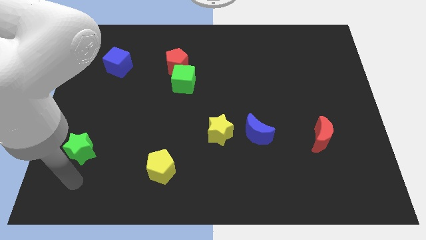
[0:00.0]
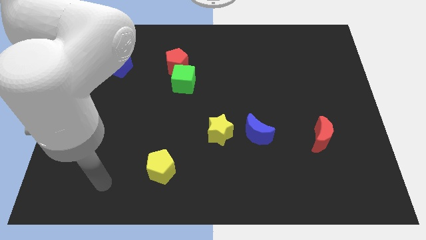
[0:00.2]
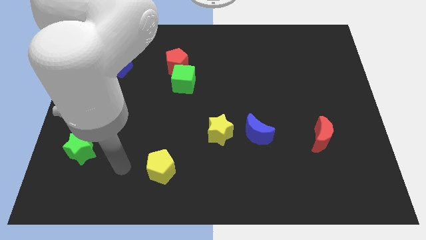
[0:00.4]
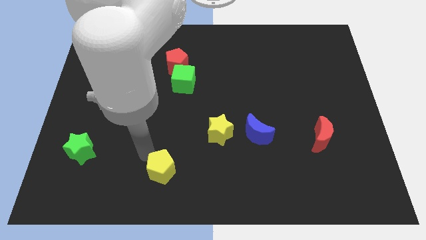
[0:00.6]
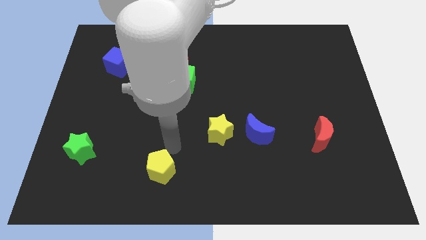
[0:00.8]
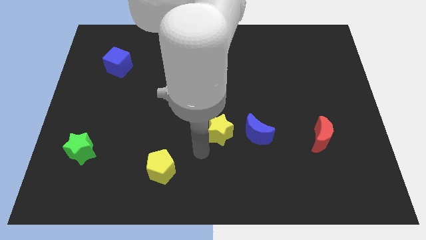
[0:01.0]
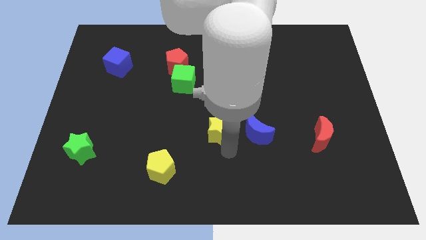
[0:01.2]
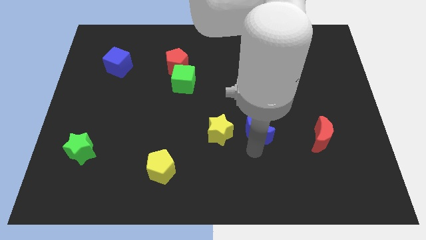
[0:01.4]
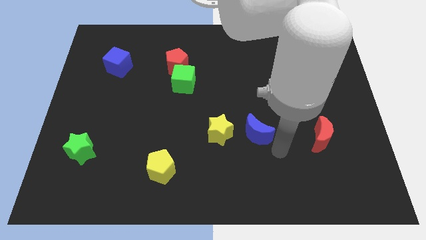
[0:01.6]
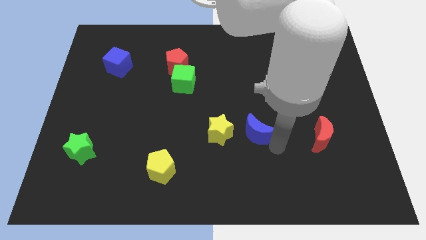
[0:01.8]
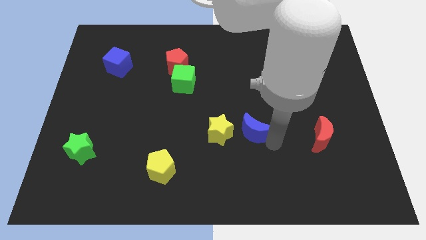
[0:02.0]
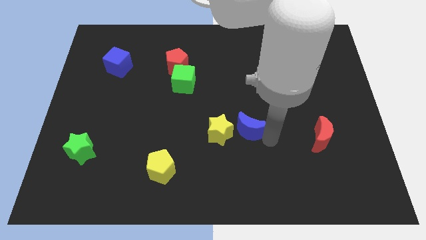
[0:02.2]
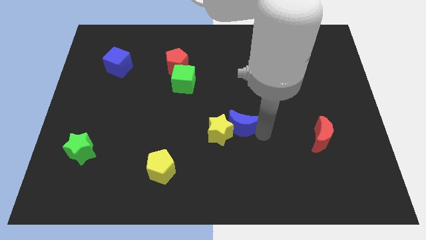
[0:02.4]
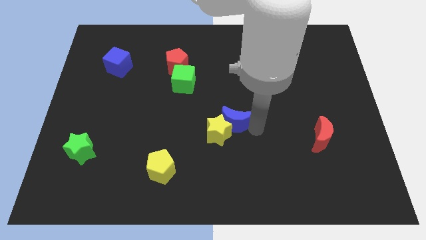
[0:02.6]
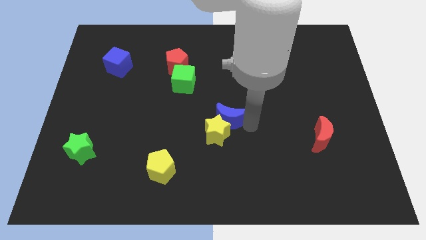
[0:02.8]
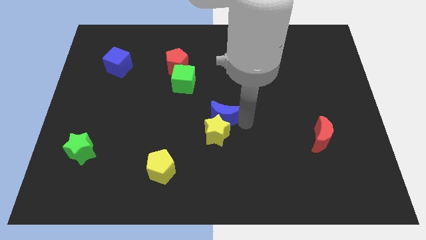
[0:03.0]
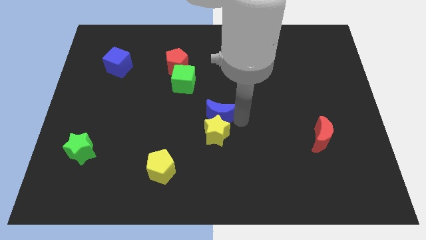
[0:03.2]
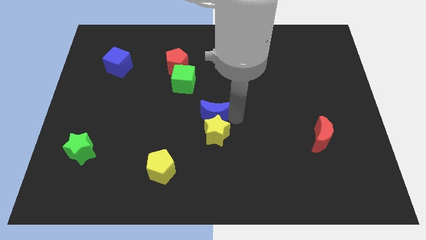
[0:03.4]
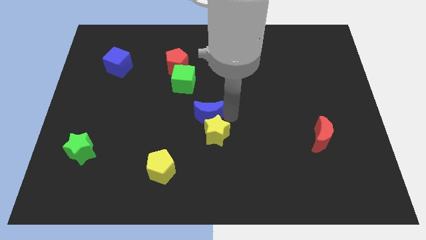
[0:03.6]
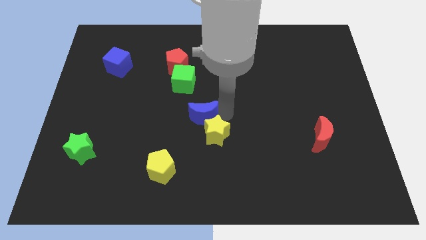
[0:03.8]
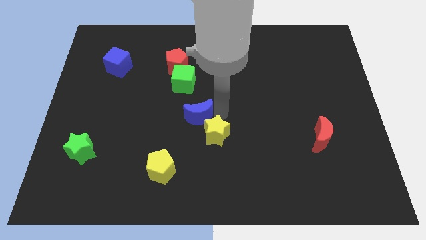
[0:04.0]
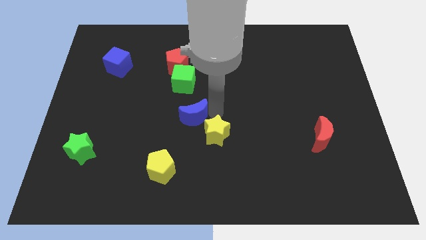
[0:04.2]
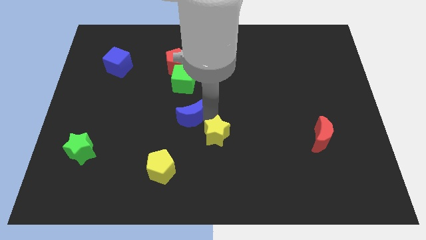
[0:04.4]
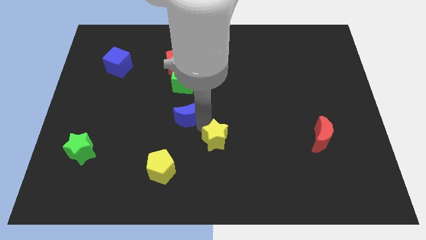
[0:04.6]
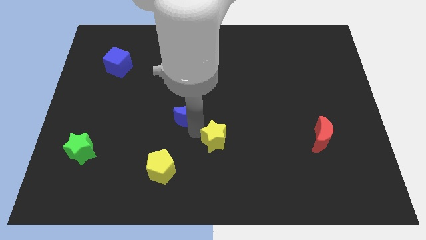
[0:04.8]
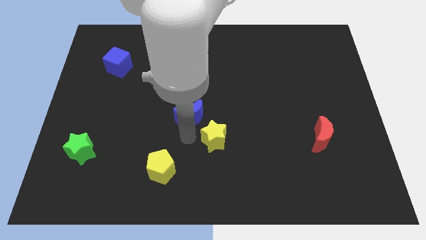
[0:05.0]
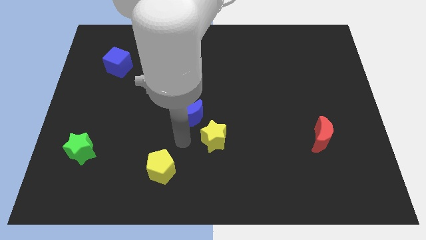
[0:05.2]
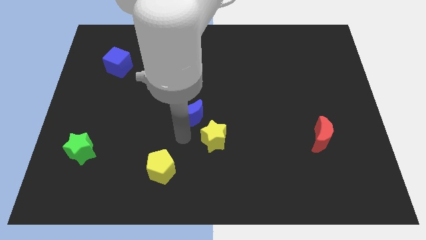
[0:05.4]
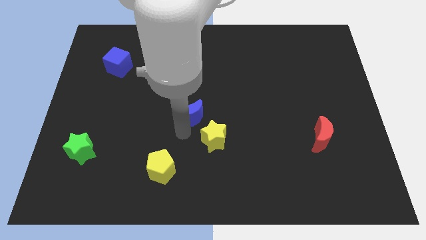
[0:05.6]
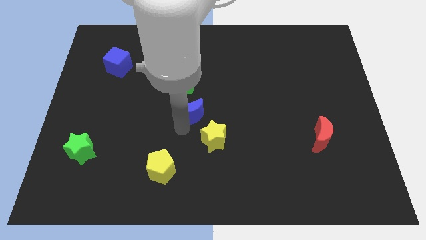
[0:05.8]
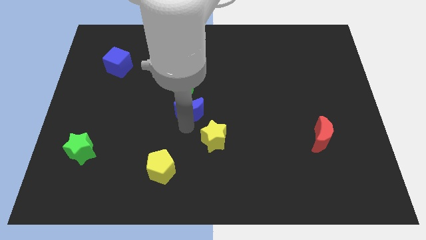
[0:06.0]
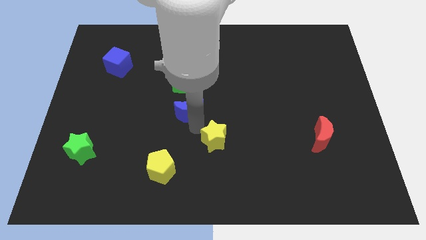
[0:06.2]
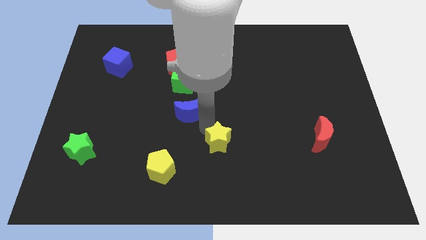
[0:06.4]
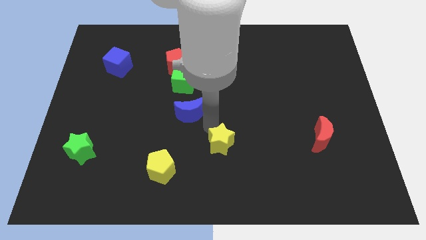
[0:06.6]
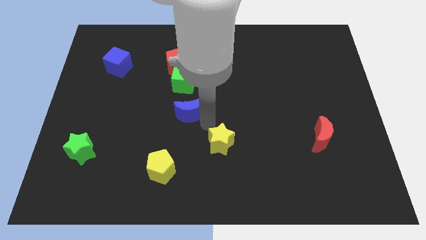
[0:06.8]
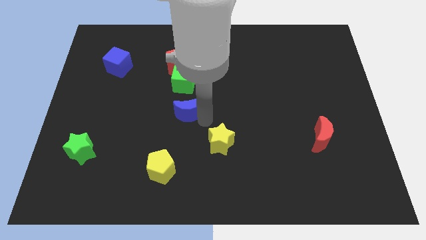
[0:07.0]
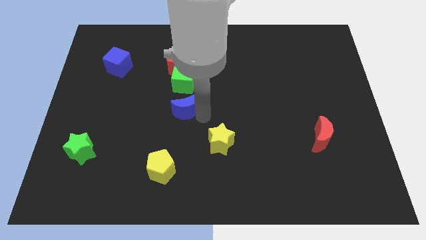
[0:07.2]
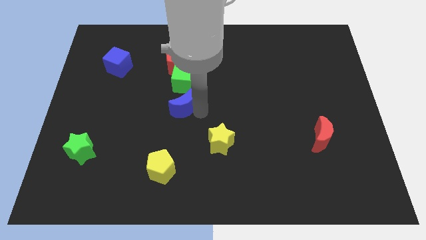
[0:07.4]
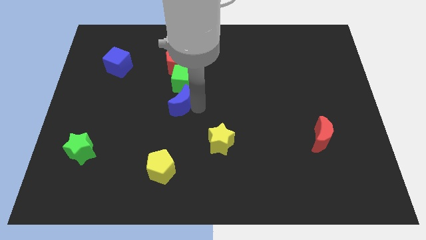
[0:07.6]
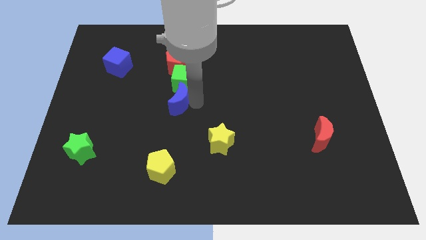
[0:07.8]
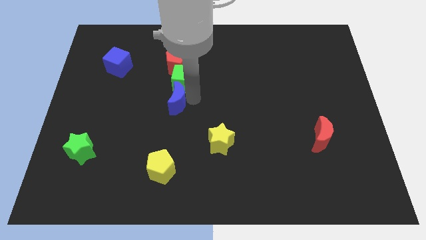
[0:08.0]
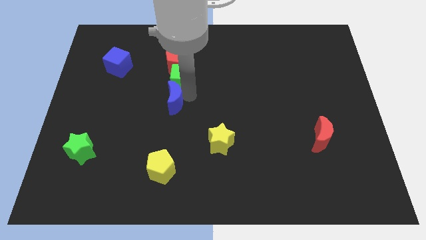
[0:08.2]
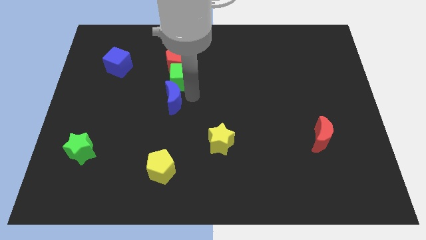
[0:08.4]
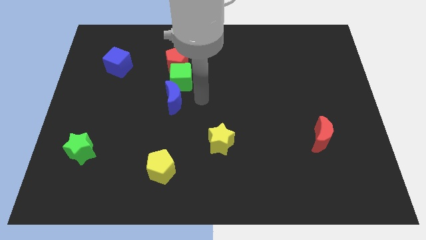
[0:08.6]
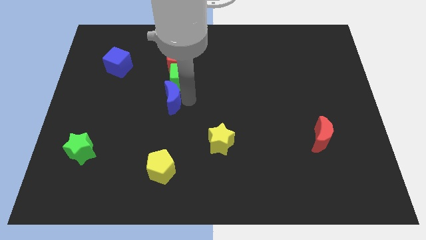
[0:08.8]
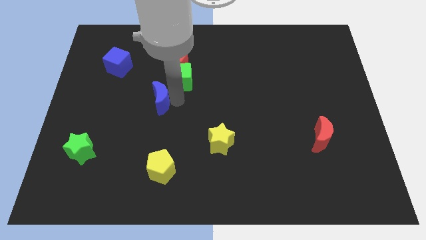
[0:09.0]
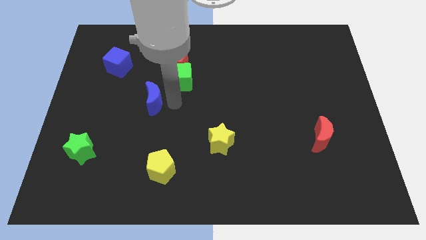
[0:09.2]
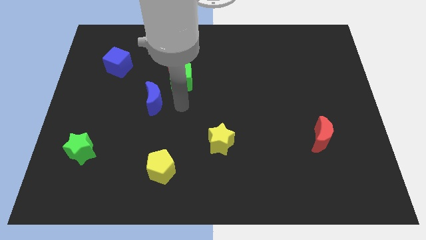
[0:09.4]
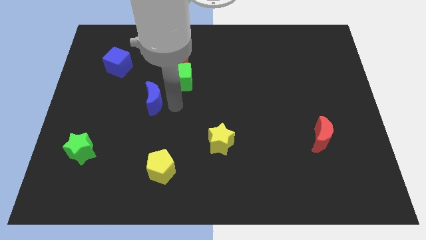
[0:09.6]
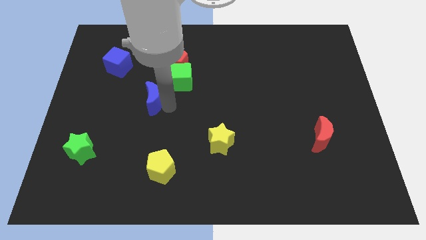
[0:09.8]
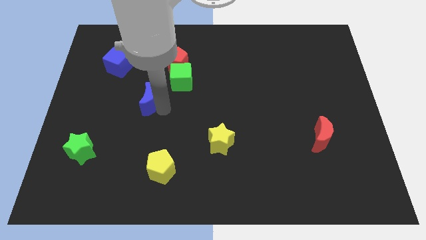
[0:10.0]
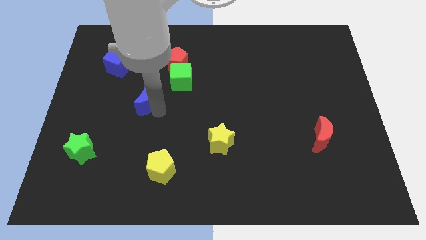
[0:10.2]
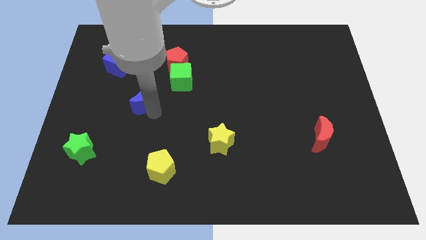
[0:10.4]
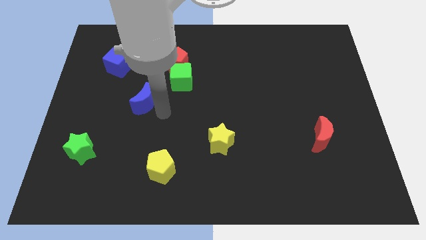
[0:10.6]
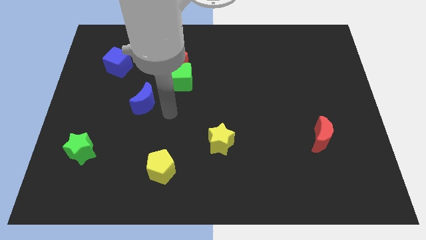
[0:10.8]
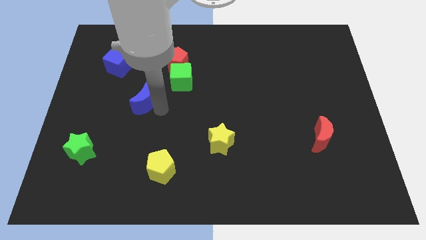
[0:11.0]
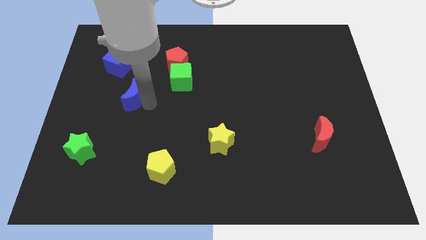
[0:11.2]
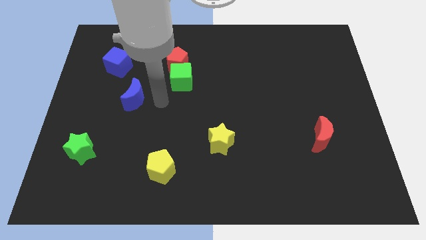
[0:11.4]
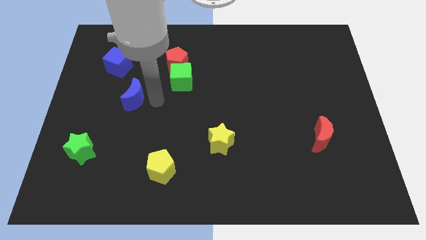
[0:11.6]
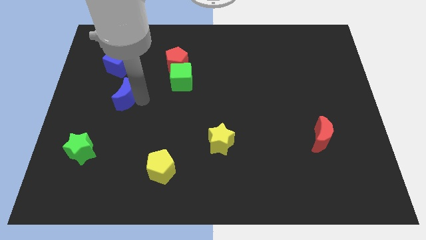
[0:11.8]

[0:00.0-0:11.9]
slide the blue moon to the bottom side of the blue cube

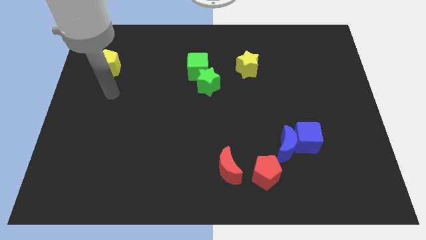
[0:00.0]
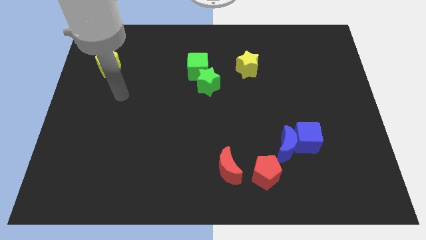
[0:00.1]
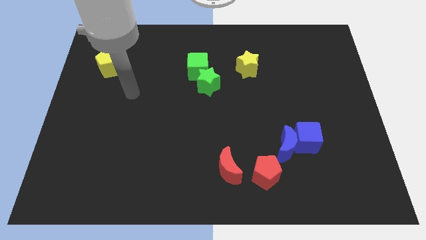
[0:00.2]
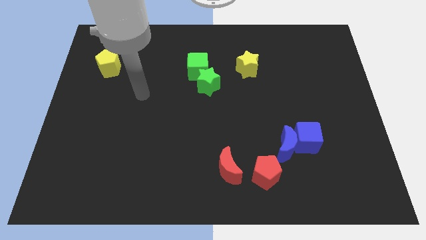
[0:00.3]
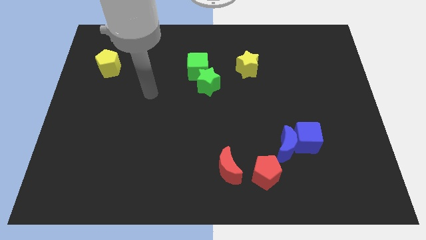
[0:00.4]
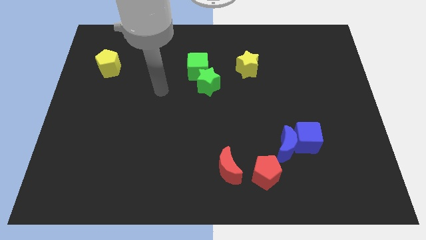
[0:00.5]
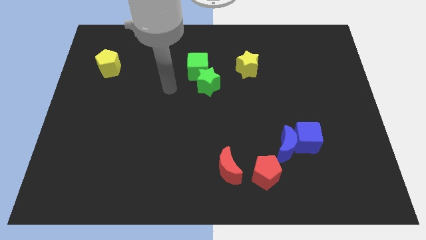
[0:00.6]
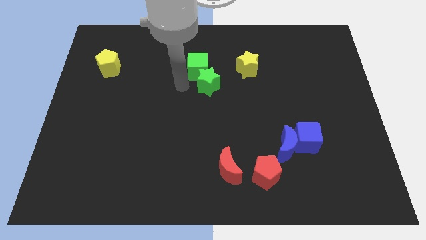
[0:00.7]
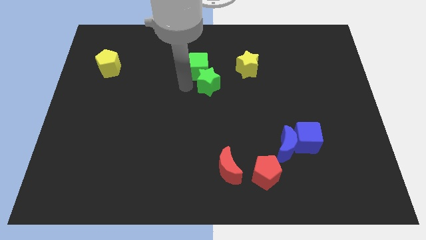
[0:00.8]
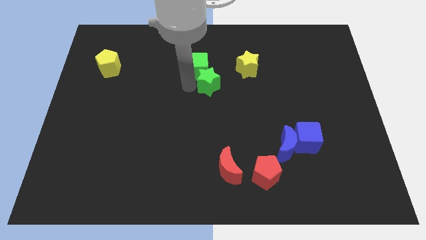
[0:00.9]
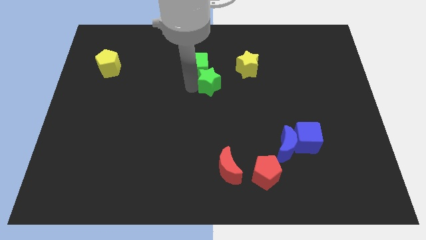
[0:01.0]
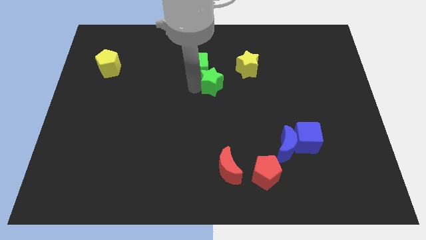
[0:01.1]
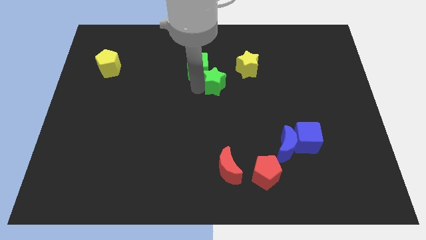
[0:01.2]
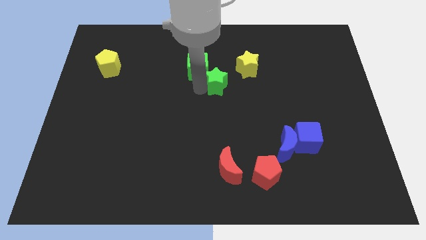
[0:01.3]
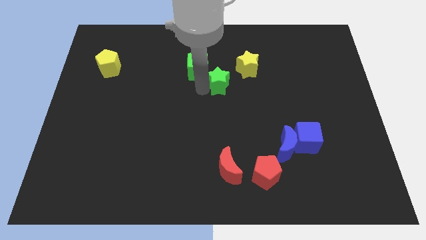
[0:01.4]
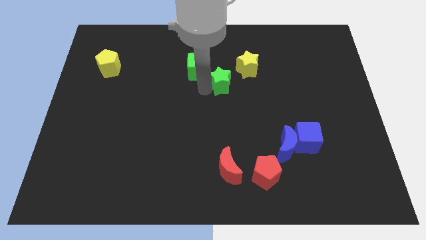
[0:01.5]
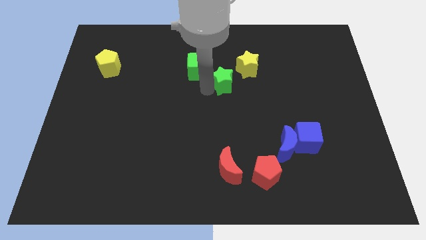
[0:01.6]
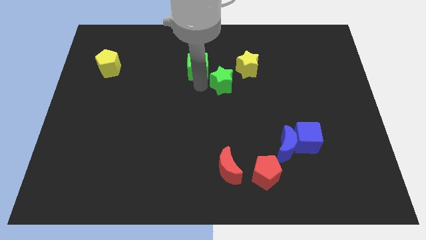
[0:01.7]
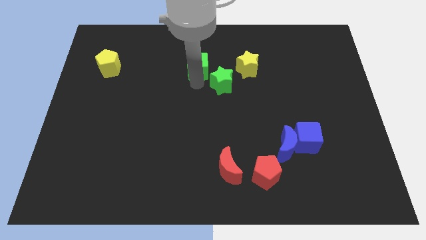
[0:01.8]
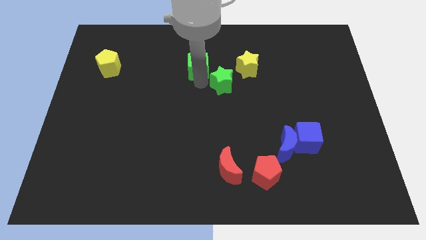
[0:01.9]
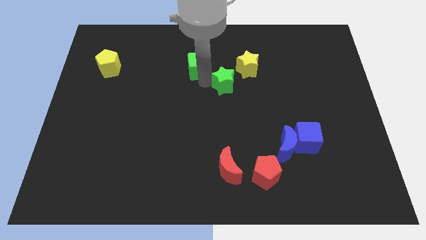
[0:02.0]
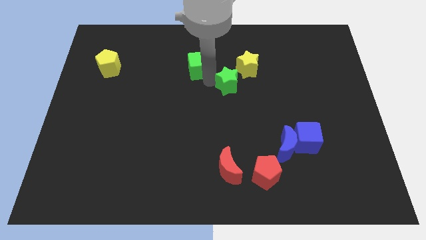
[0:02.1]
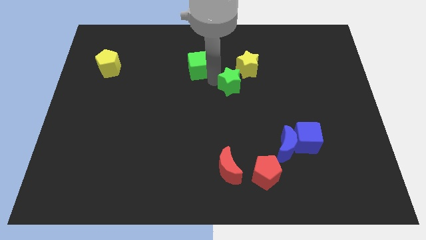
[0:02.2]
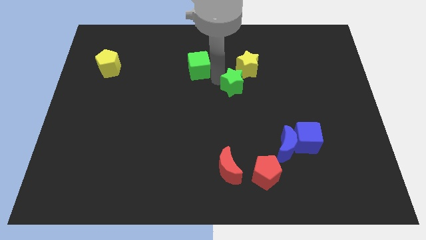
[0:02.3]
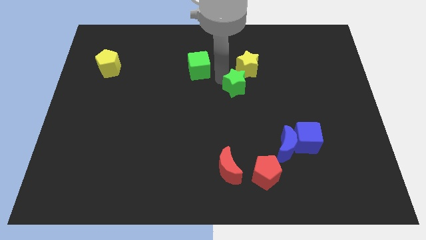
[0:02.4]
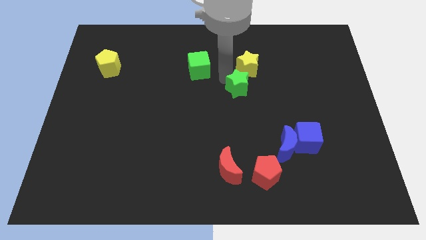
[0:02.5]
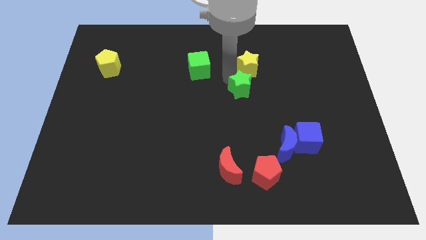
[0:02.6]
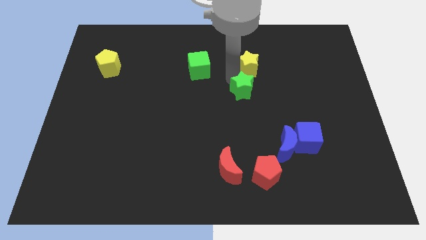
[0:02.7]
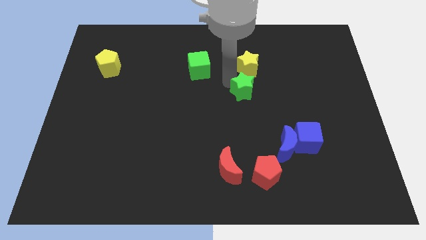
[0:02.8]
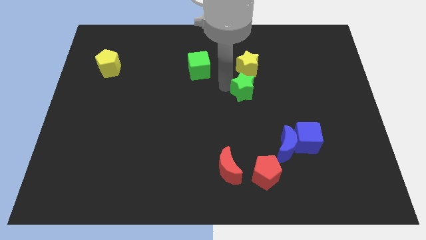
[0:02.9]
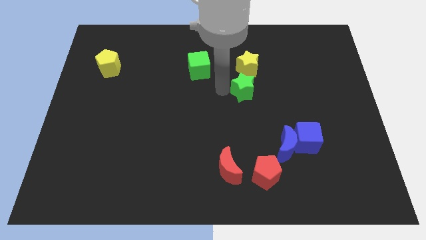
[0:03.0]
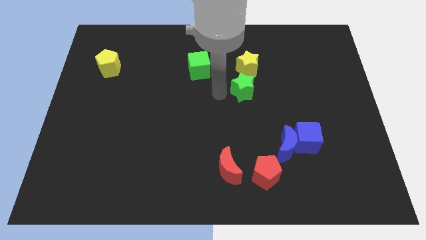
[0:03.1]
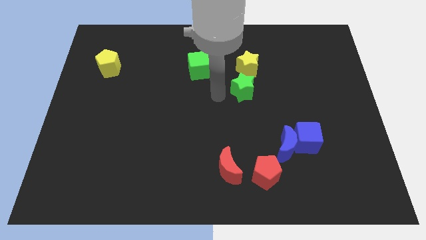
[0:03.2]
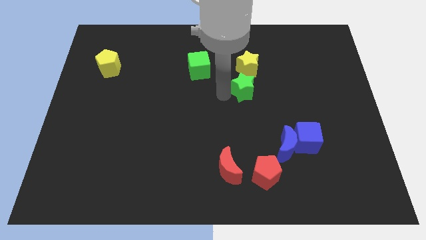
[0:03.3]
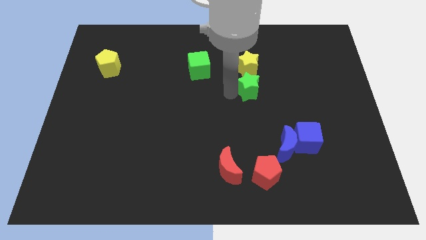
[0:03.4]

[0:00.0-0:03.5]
move the green star to the bottom right side of the yellow star
